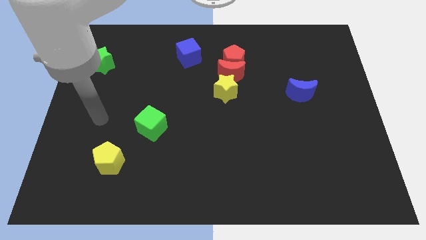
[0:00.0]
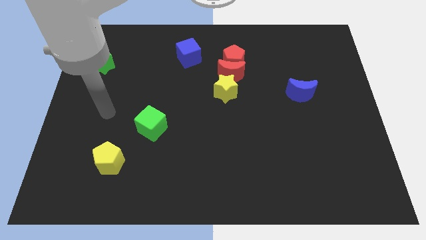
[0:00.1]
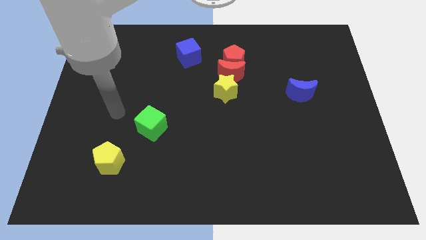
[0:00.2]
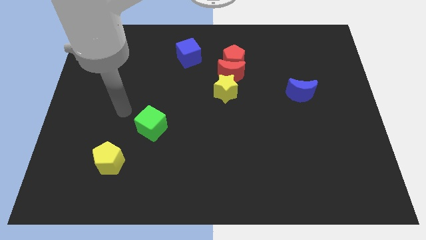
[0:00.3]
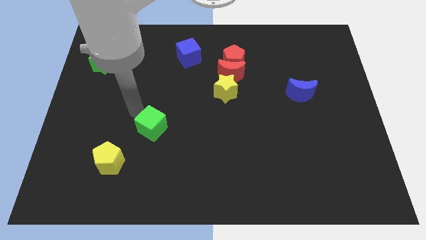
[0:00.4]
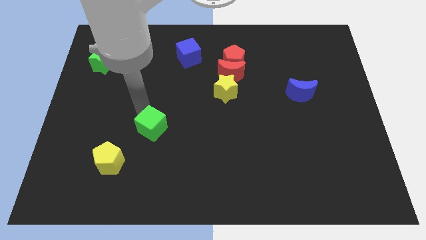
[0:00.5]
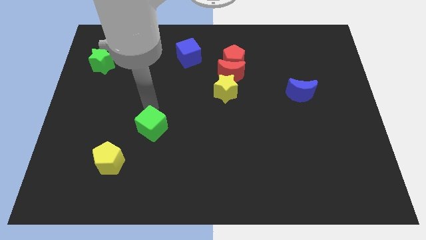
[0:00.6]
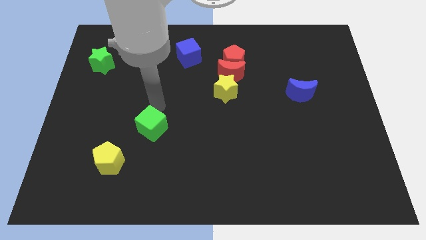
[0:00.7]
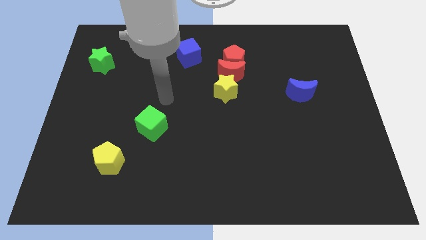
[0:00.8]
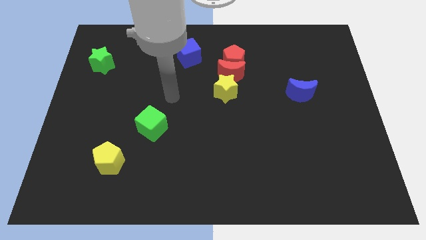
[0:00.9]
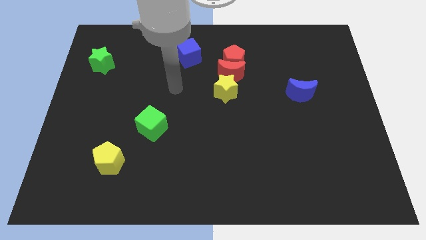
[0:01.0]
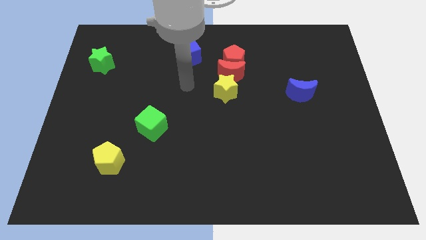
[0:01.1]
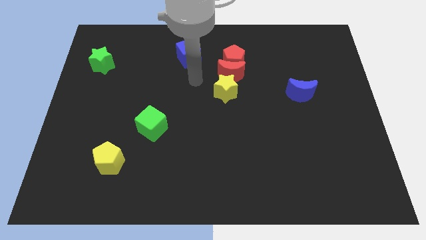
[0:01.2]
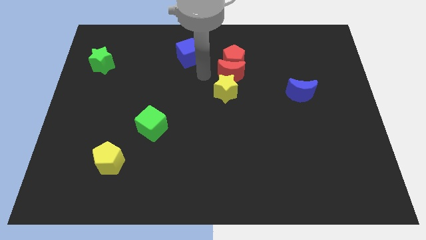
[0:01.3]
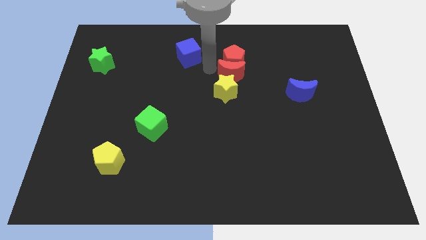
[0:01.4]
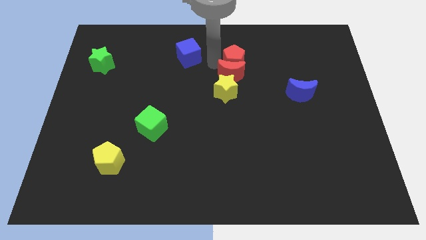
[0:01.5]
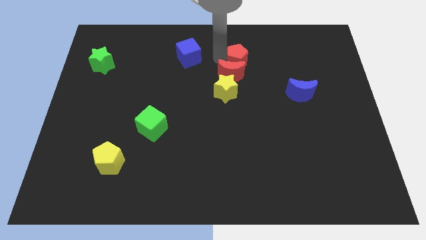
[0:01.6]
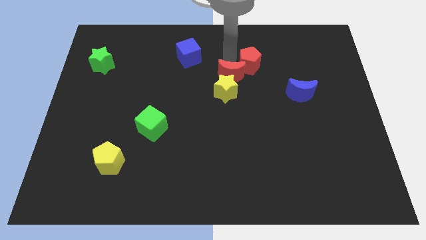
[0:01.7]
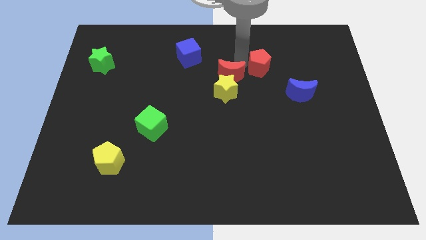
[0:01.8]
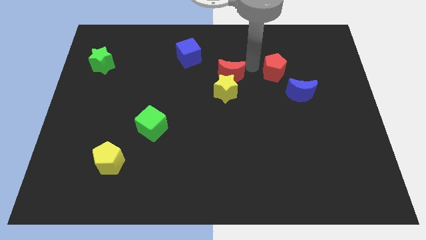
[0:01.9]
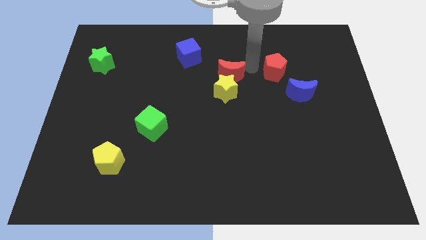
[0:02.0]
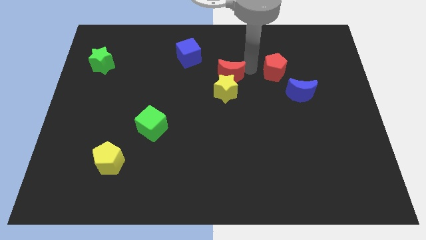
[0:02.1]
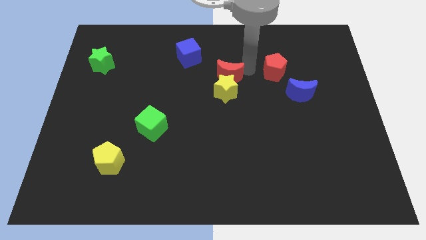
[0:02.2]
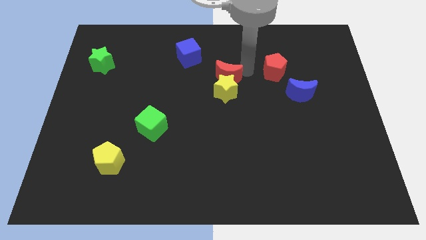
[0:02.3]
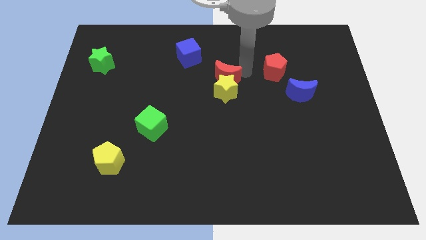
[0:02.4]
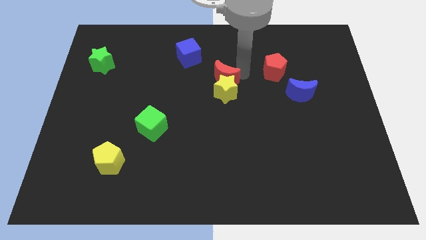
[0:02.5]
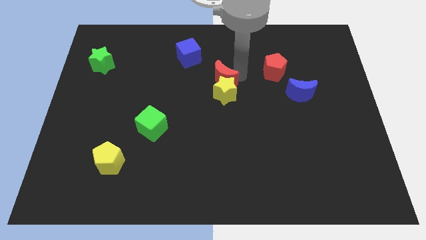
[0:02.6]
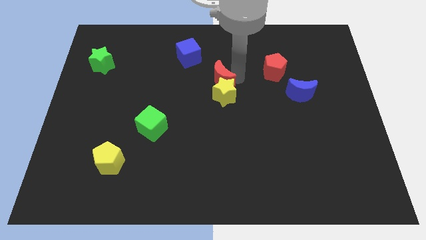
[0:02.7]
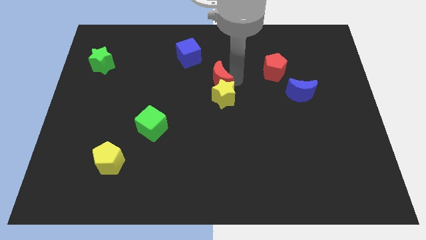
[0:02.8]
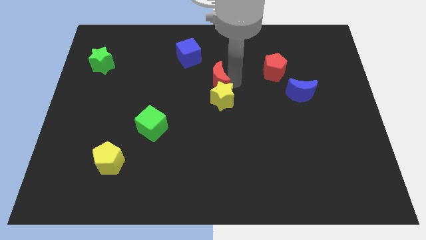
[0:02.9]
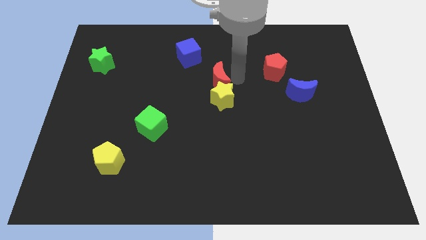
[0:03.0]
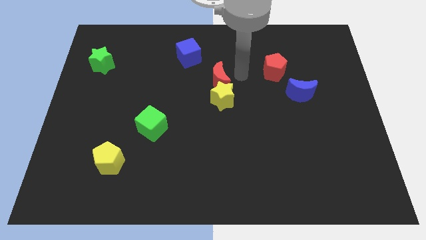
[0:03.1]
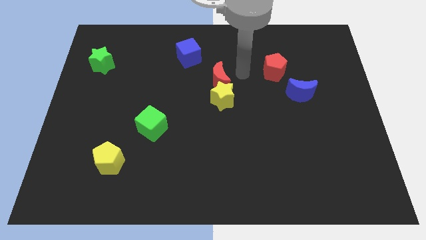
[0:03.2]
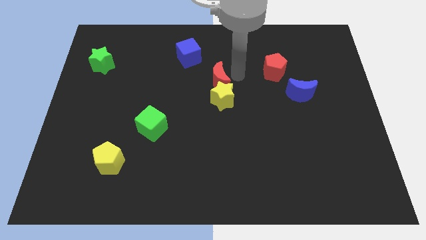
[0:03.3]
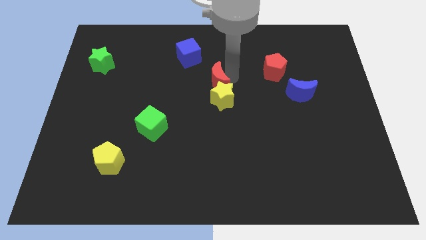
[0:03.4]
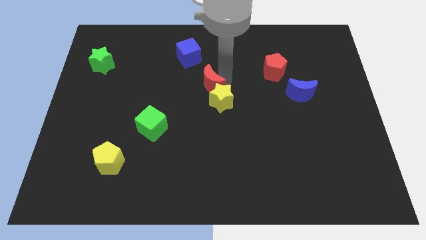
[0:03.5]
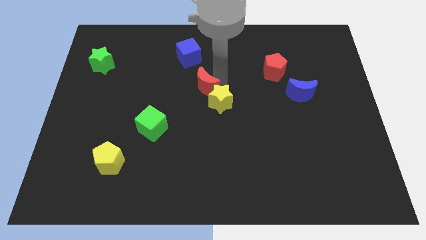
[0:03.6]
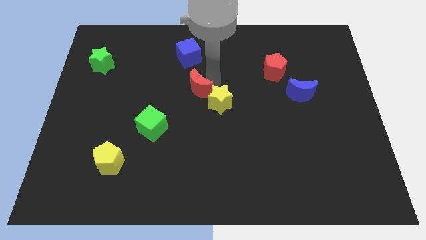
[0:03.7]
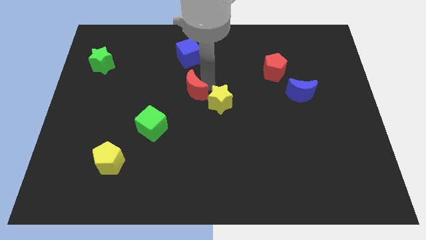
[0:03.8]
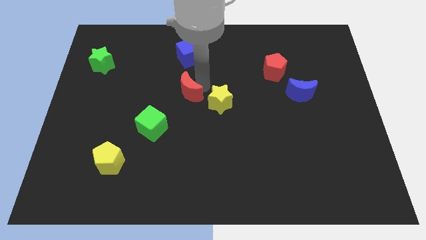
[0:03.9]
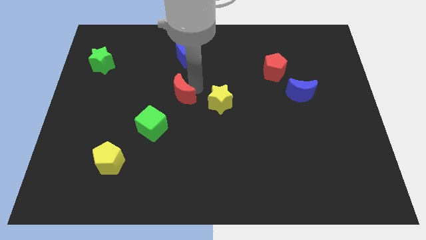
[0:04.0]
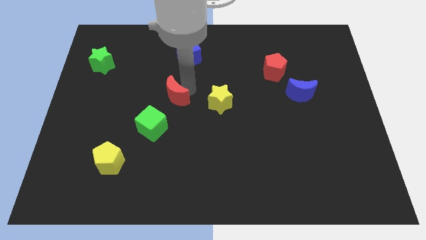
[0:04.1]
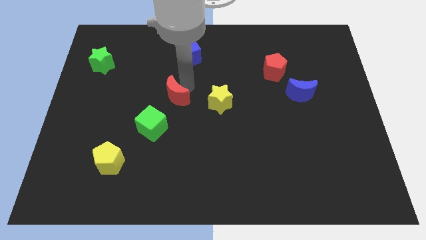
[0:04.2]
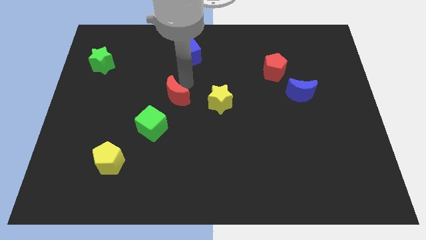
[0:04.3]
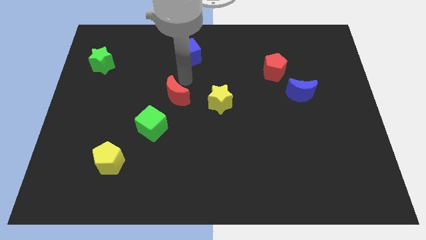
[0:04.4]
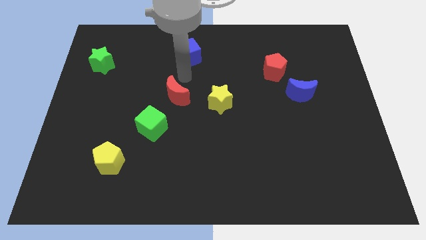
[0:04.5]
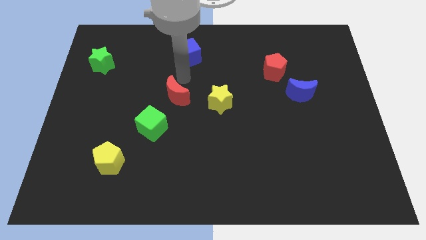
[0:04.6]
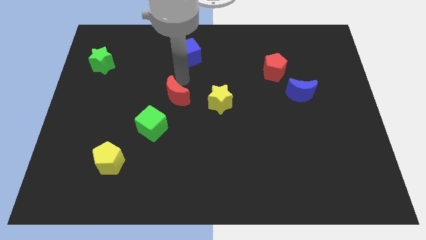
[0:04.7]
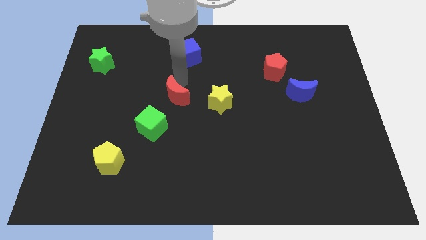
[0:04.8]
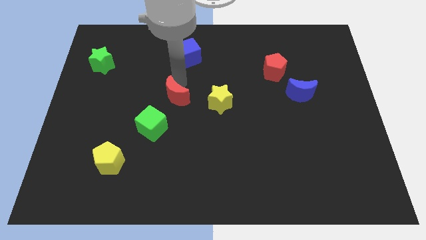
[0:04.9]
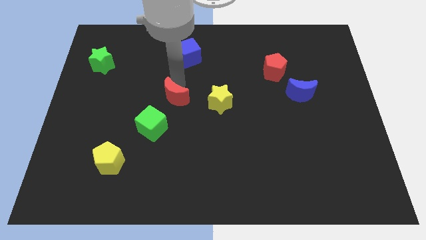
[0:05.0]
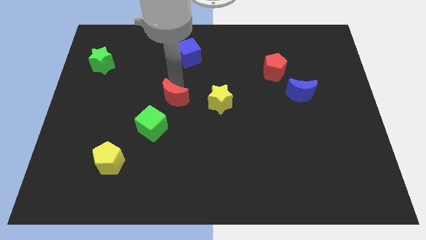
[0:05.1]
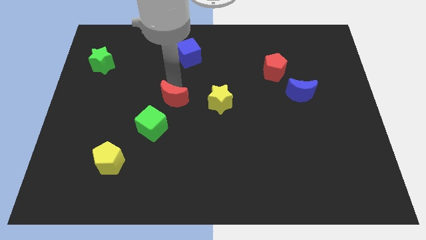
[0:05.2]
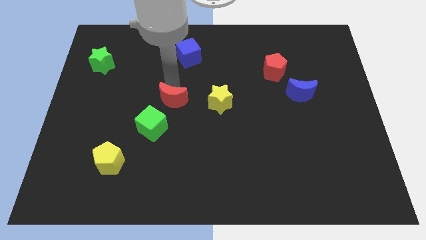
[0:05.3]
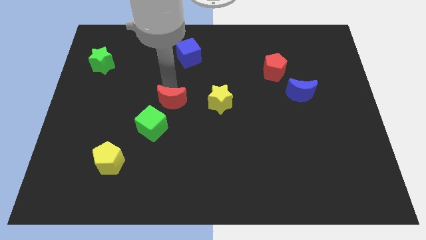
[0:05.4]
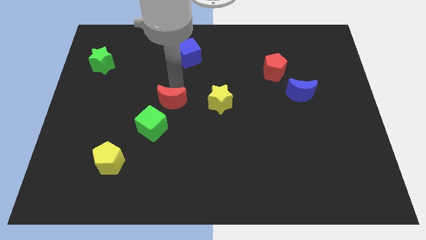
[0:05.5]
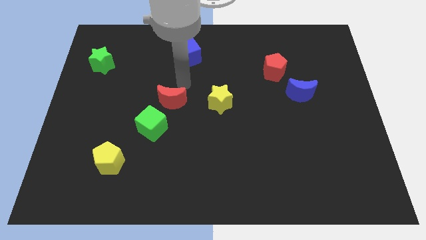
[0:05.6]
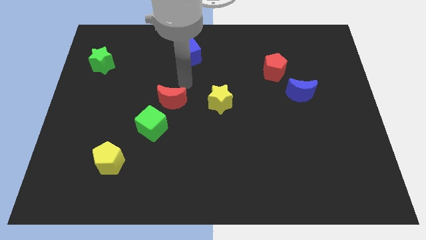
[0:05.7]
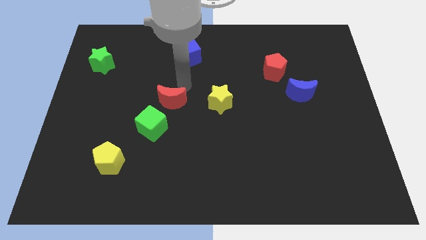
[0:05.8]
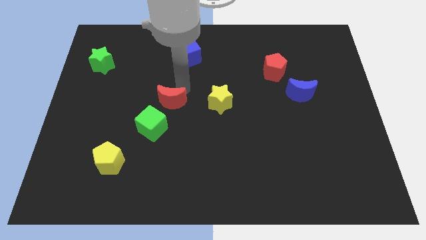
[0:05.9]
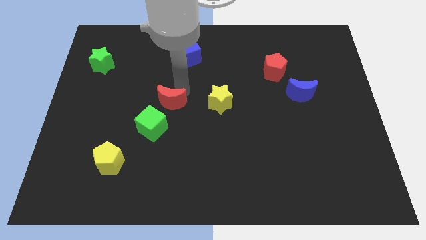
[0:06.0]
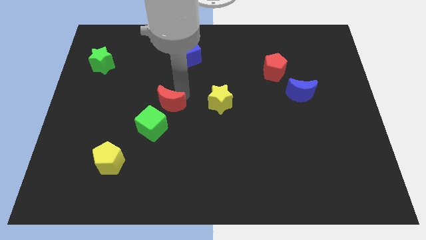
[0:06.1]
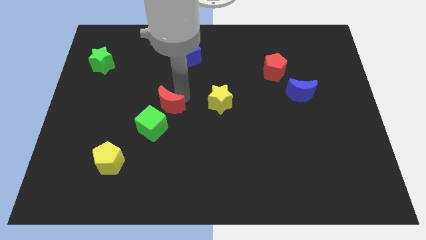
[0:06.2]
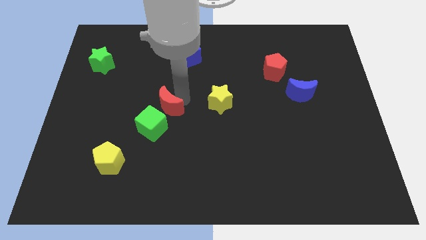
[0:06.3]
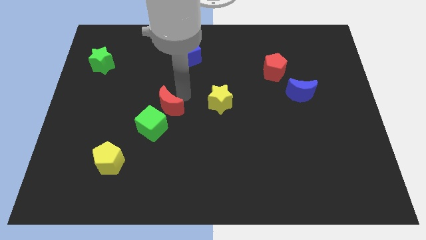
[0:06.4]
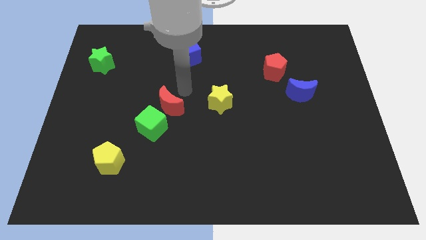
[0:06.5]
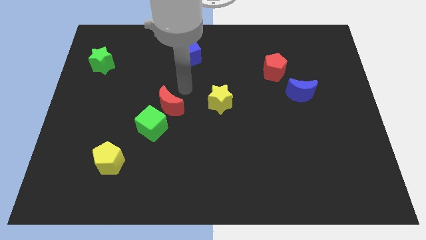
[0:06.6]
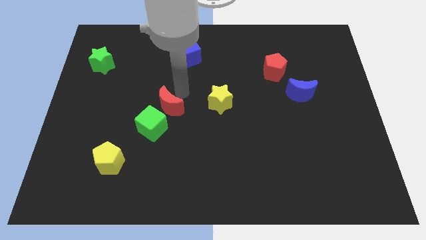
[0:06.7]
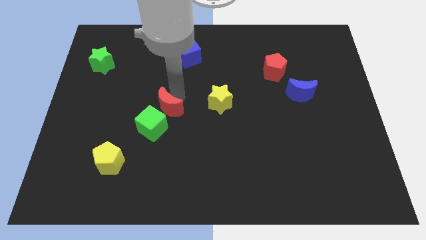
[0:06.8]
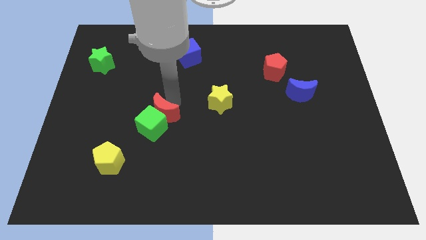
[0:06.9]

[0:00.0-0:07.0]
move the red moon towards the green cube
